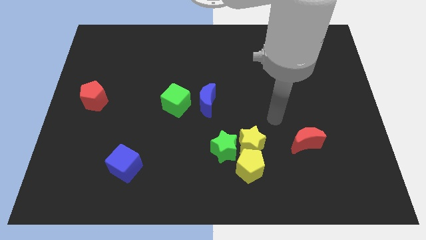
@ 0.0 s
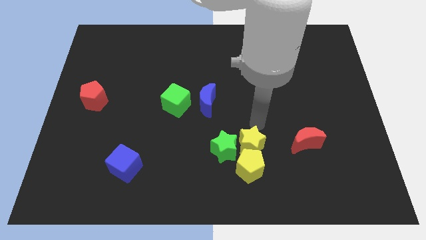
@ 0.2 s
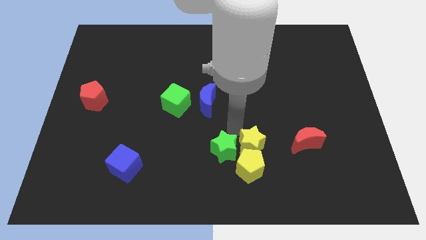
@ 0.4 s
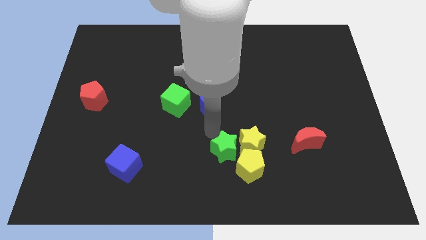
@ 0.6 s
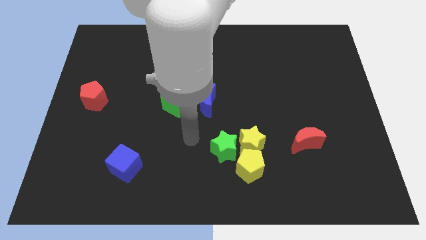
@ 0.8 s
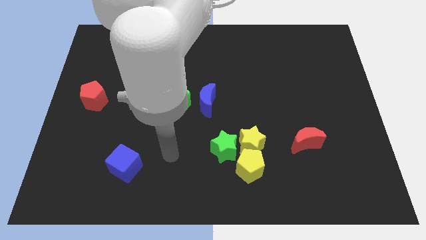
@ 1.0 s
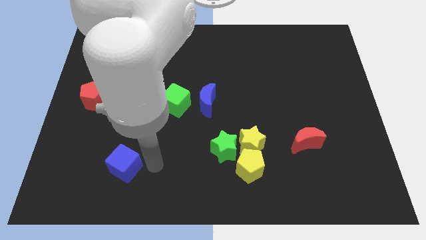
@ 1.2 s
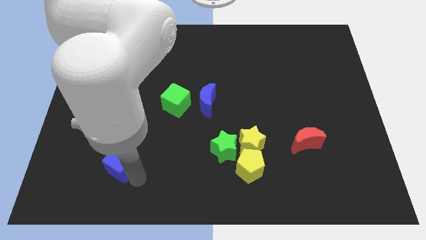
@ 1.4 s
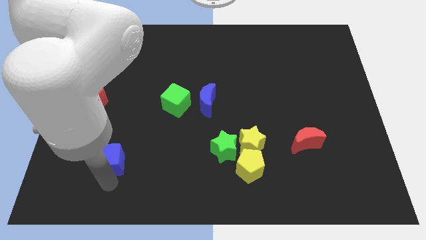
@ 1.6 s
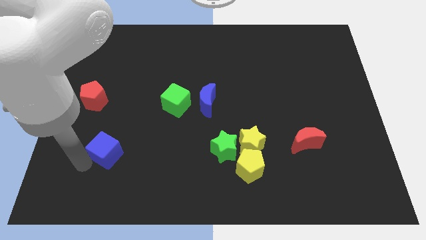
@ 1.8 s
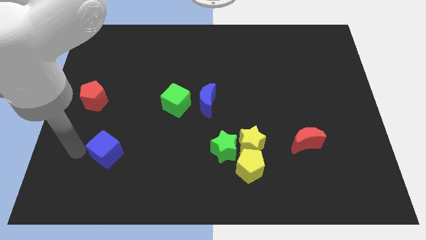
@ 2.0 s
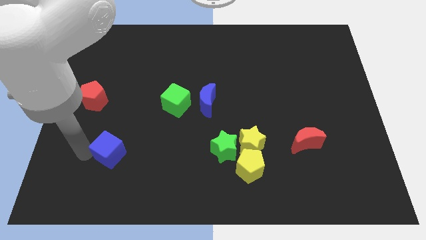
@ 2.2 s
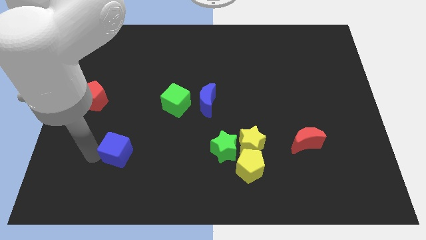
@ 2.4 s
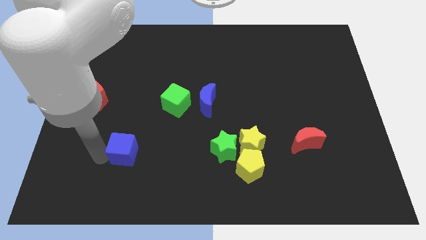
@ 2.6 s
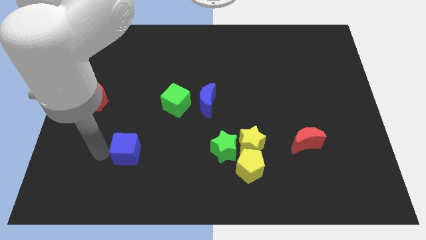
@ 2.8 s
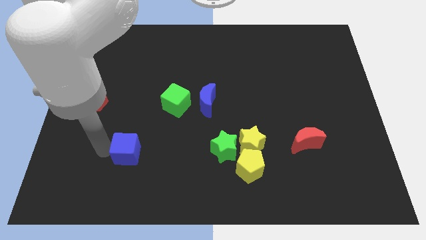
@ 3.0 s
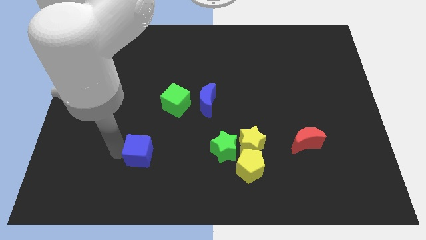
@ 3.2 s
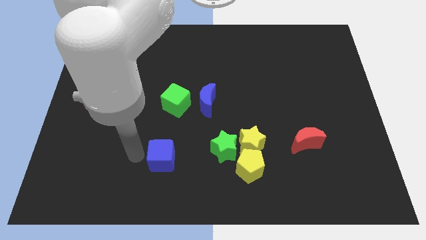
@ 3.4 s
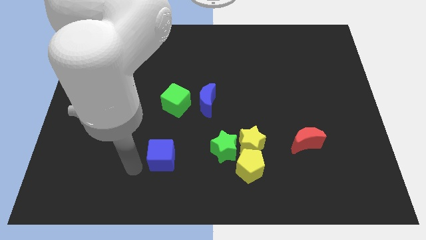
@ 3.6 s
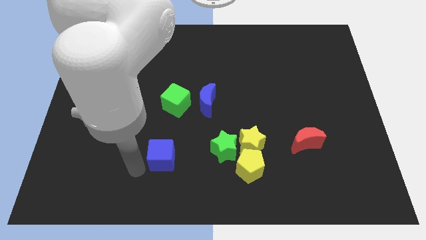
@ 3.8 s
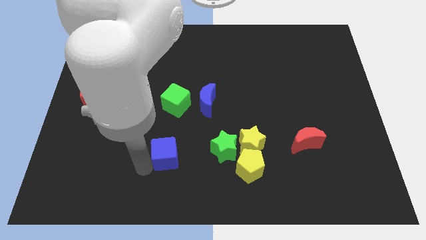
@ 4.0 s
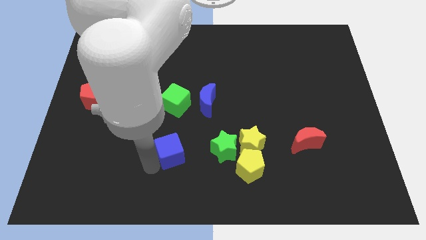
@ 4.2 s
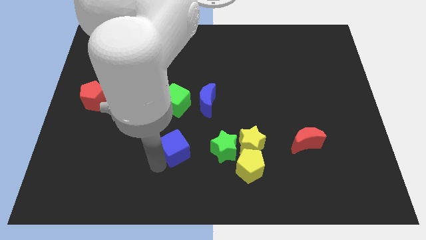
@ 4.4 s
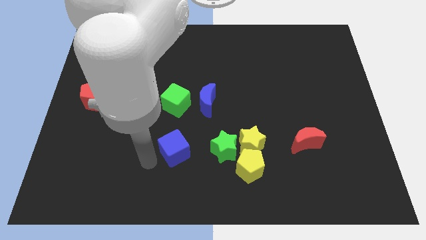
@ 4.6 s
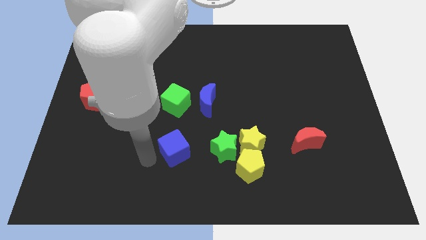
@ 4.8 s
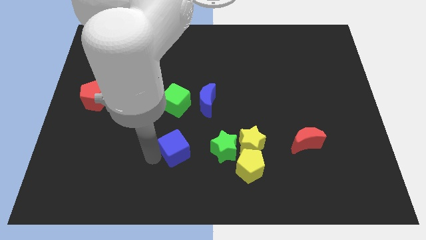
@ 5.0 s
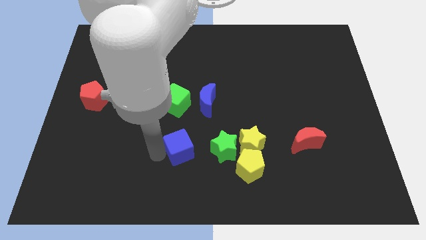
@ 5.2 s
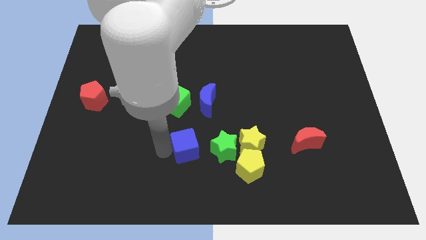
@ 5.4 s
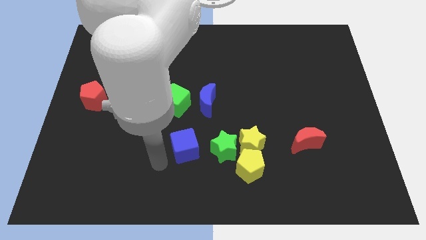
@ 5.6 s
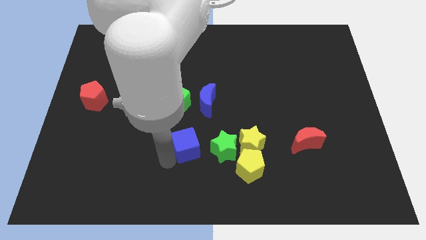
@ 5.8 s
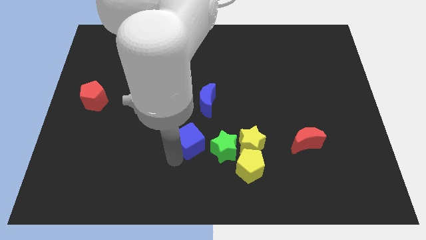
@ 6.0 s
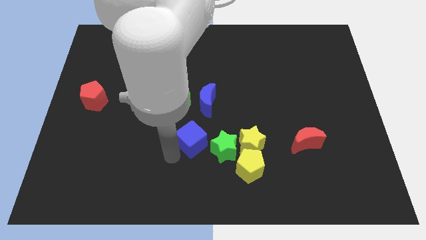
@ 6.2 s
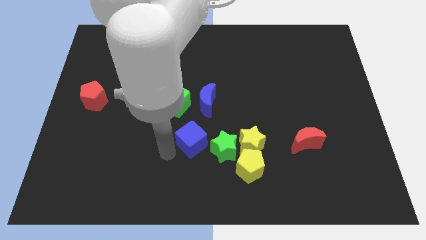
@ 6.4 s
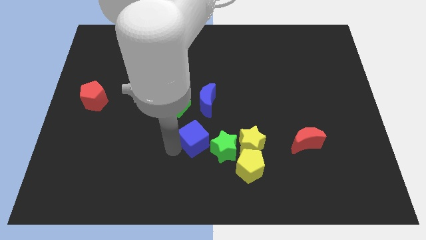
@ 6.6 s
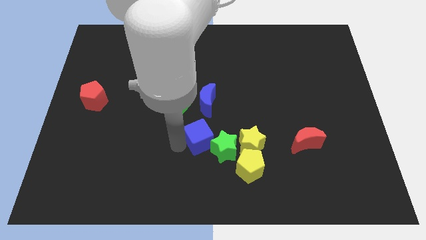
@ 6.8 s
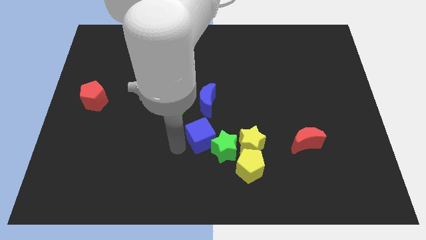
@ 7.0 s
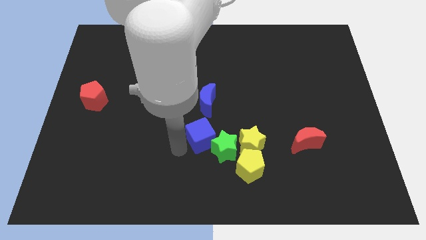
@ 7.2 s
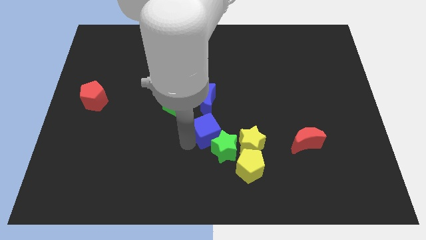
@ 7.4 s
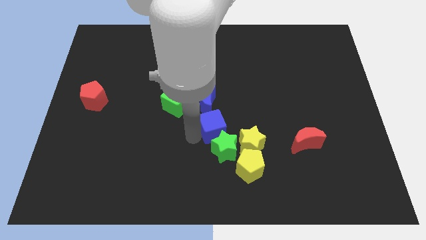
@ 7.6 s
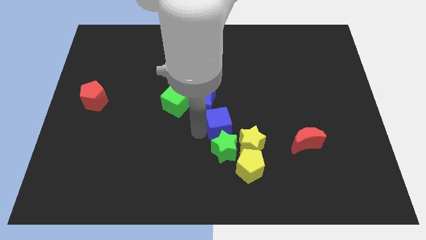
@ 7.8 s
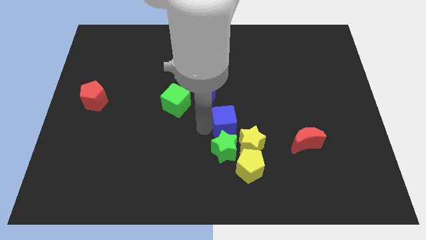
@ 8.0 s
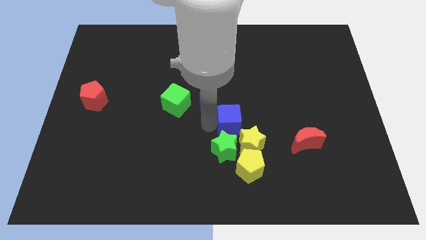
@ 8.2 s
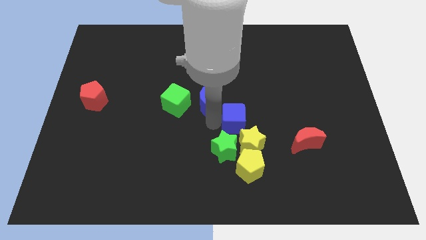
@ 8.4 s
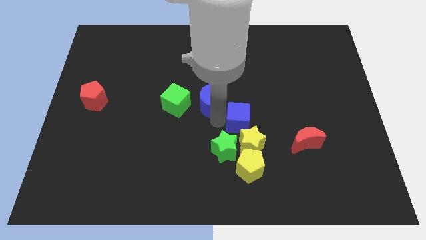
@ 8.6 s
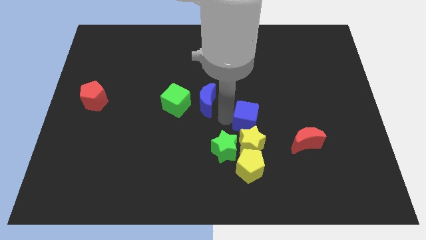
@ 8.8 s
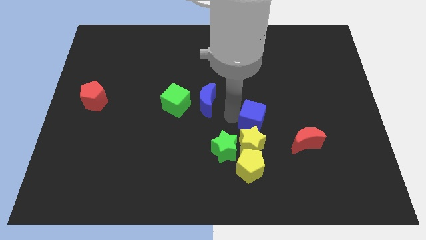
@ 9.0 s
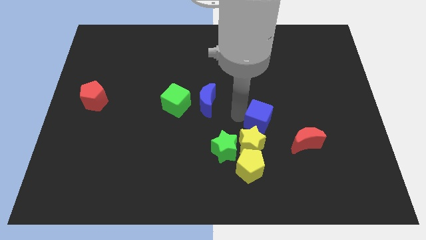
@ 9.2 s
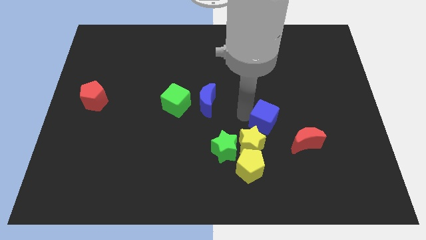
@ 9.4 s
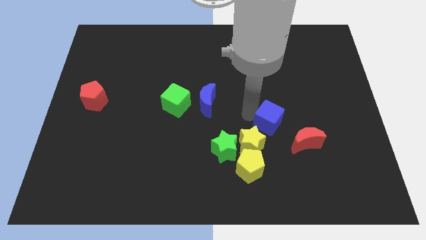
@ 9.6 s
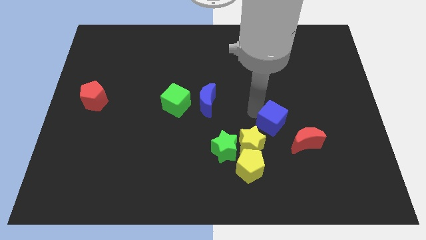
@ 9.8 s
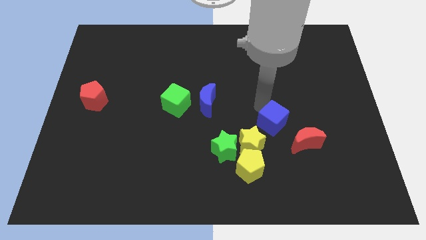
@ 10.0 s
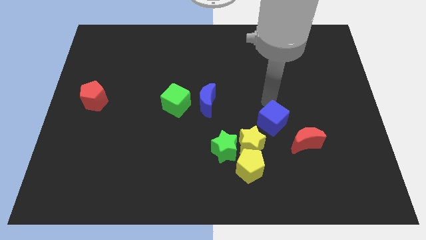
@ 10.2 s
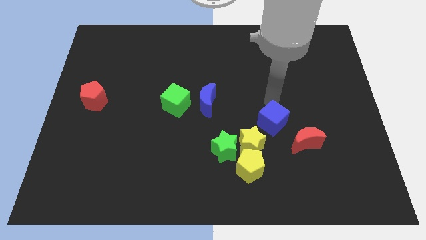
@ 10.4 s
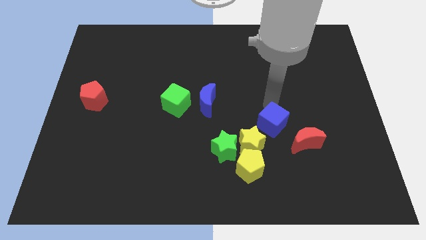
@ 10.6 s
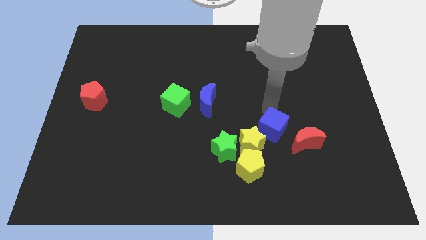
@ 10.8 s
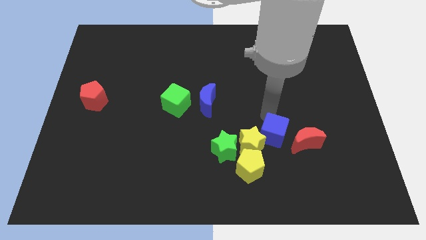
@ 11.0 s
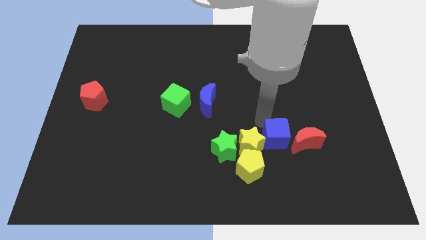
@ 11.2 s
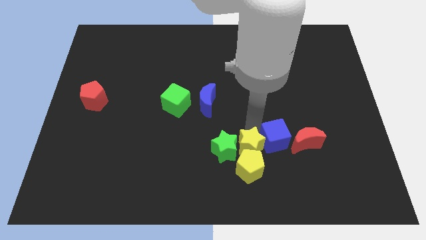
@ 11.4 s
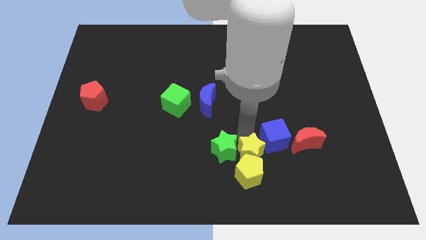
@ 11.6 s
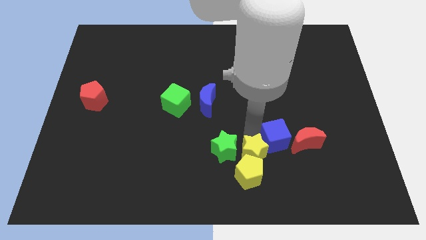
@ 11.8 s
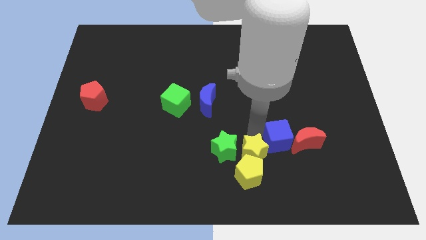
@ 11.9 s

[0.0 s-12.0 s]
slide the blue cube next to the red moon

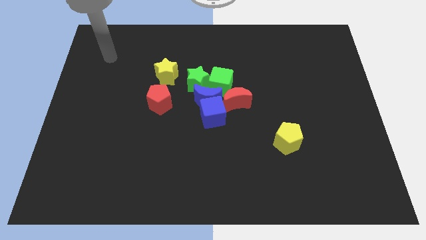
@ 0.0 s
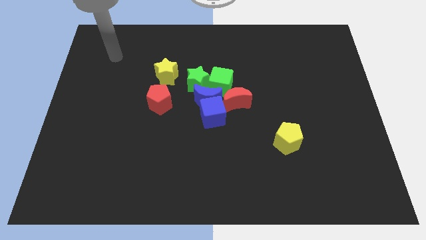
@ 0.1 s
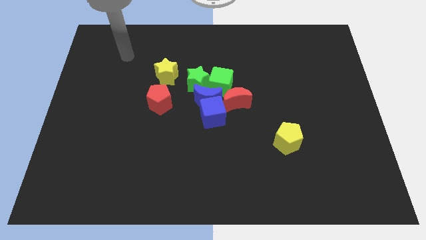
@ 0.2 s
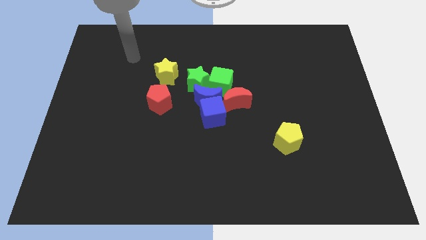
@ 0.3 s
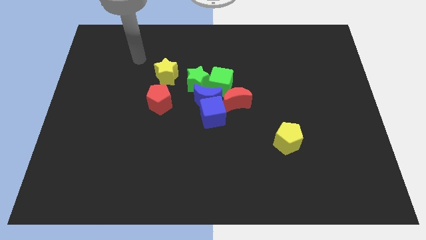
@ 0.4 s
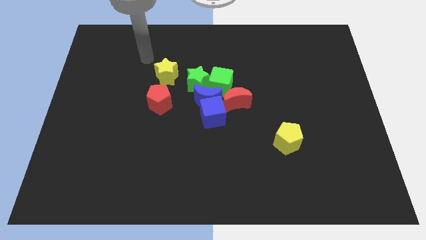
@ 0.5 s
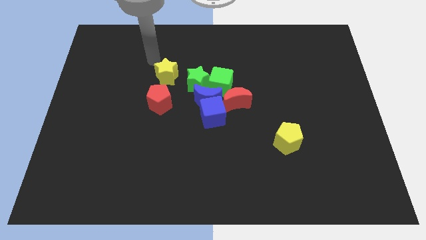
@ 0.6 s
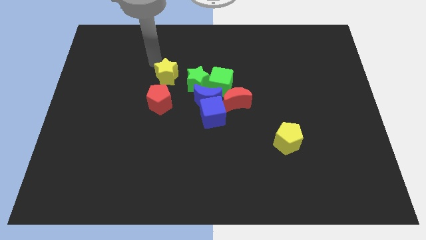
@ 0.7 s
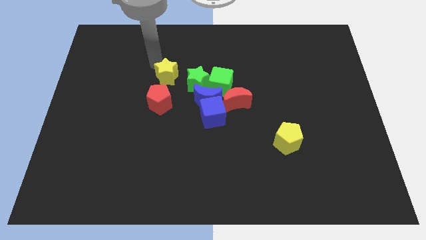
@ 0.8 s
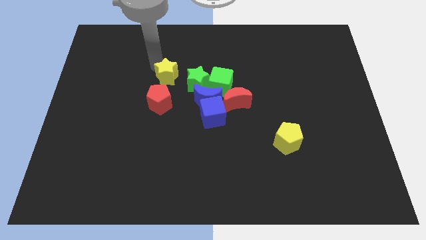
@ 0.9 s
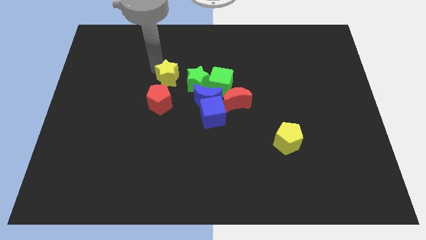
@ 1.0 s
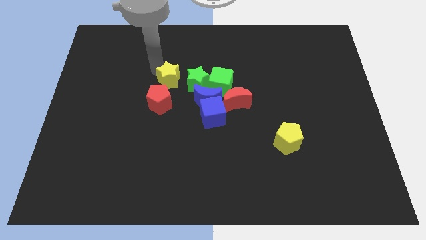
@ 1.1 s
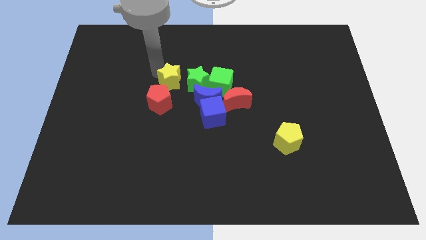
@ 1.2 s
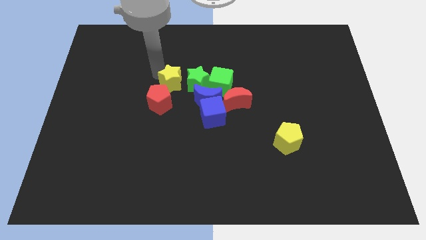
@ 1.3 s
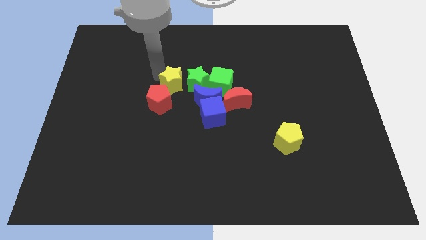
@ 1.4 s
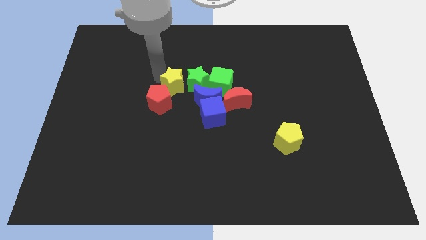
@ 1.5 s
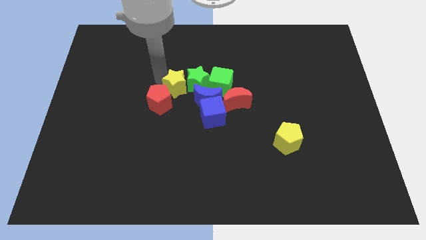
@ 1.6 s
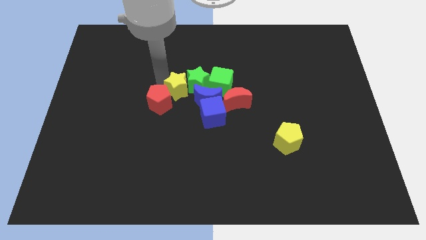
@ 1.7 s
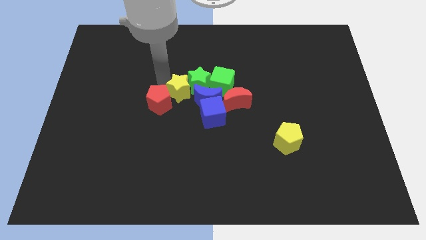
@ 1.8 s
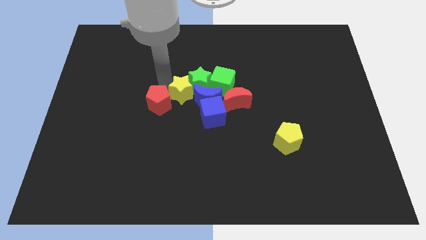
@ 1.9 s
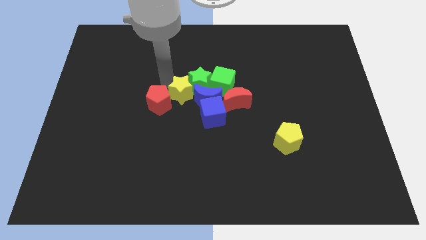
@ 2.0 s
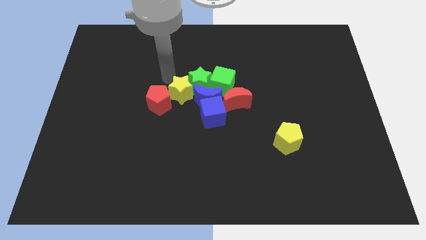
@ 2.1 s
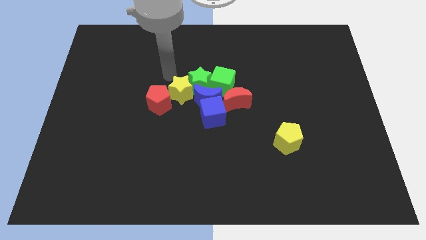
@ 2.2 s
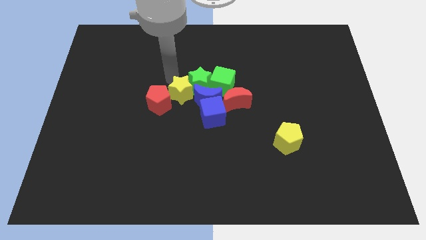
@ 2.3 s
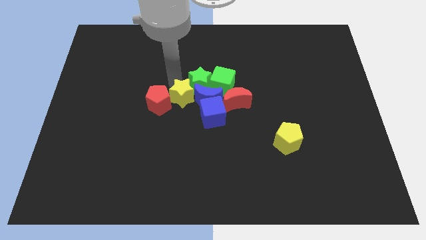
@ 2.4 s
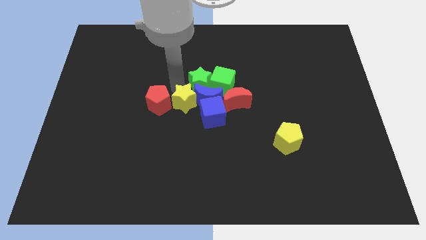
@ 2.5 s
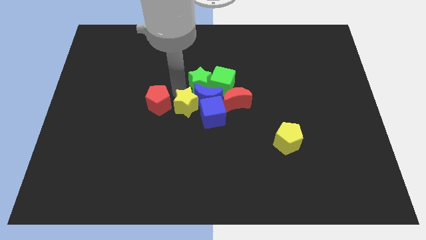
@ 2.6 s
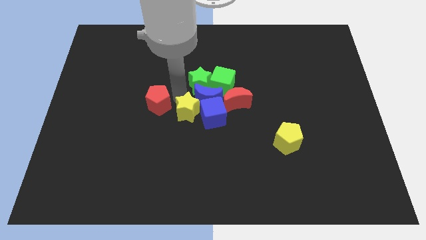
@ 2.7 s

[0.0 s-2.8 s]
slide the yellow star towards the blue cube
